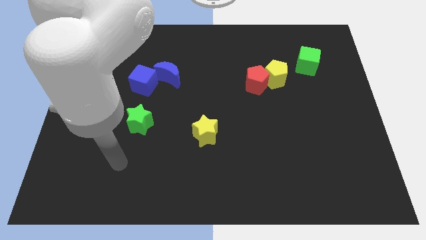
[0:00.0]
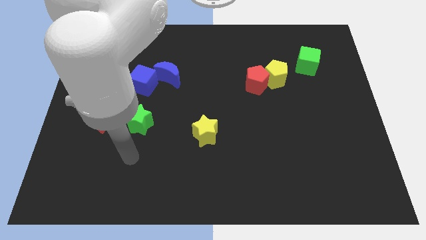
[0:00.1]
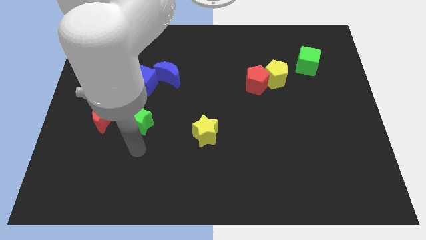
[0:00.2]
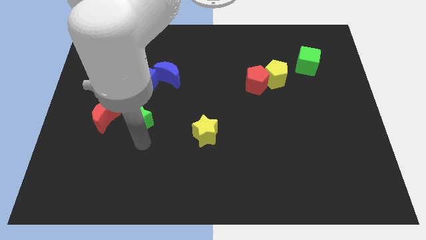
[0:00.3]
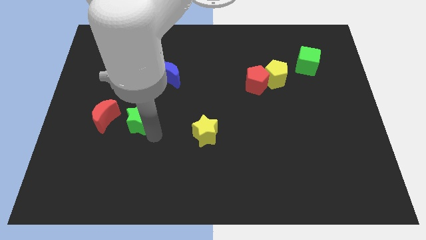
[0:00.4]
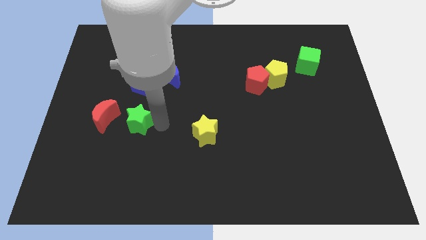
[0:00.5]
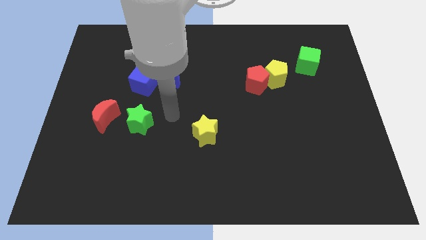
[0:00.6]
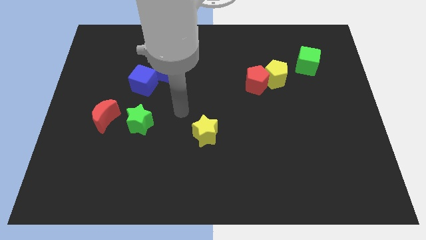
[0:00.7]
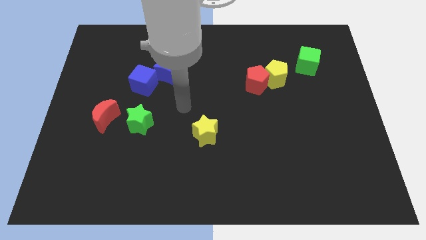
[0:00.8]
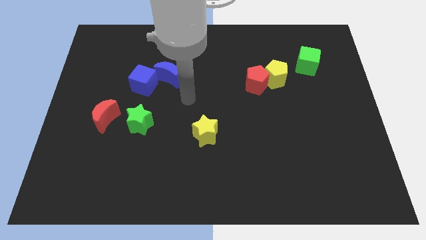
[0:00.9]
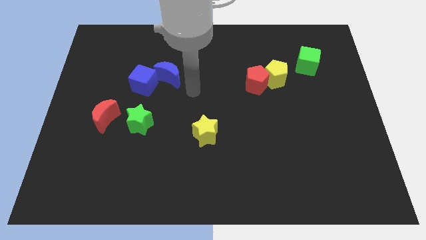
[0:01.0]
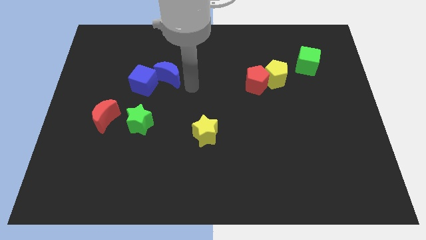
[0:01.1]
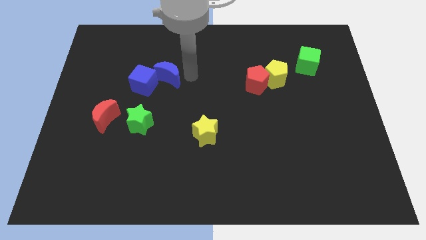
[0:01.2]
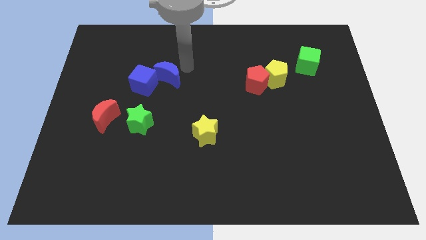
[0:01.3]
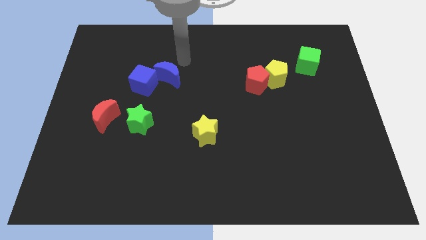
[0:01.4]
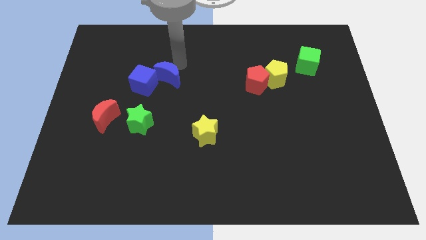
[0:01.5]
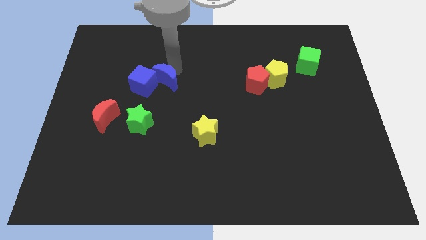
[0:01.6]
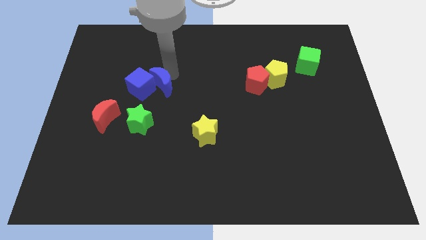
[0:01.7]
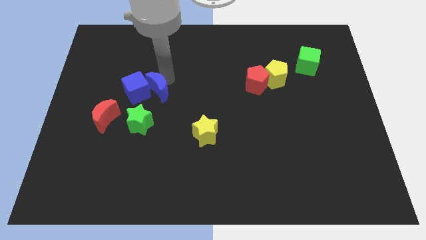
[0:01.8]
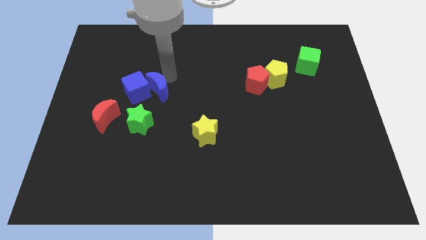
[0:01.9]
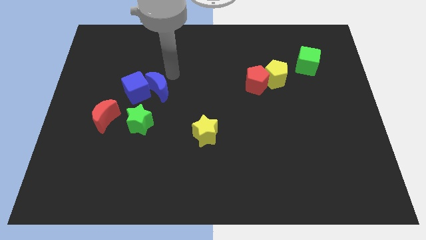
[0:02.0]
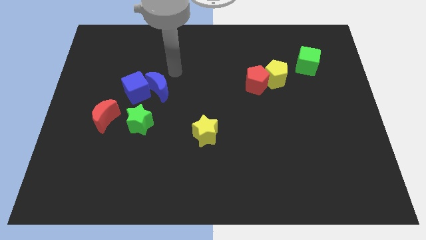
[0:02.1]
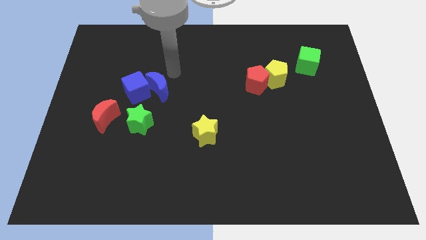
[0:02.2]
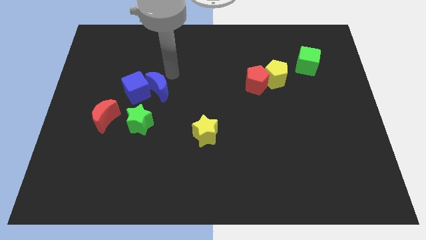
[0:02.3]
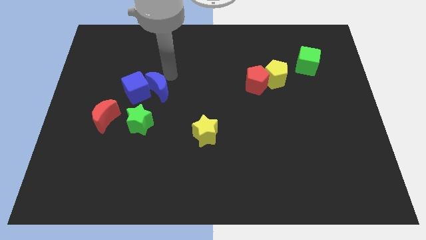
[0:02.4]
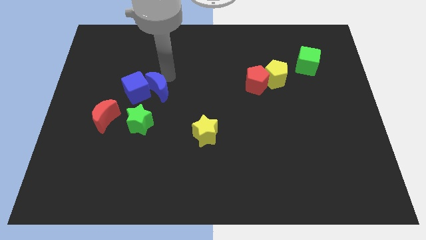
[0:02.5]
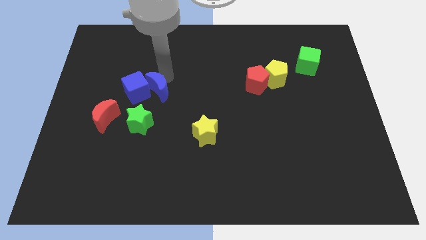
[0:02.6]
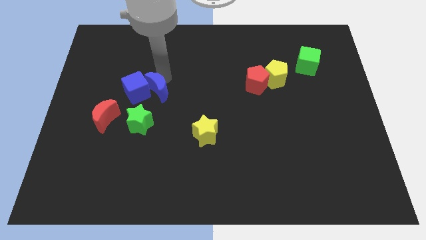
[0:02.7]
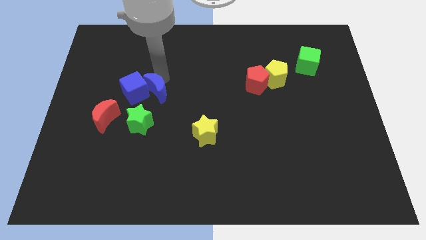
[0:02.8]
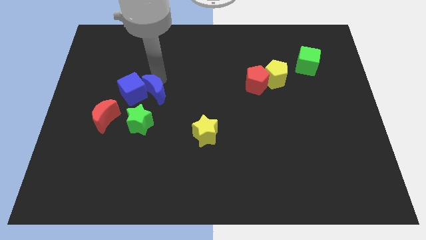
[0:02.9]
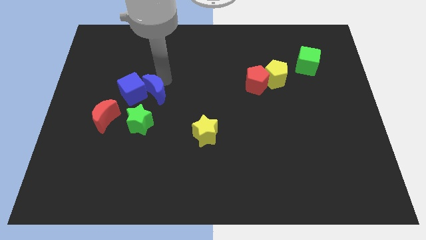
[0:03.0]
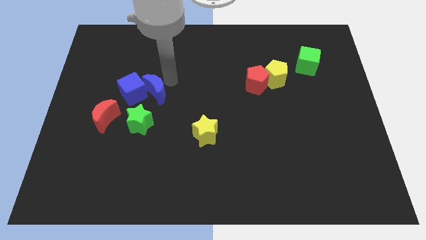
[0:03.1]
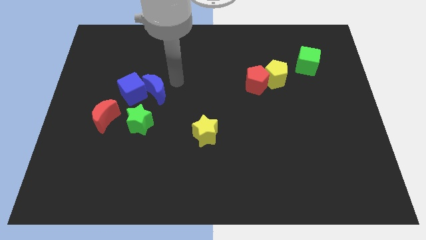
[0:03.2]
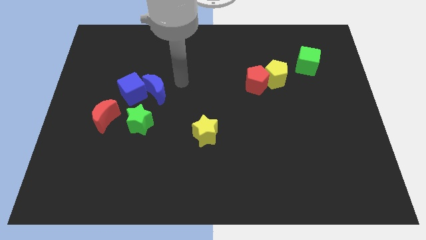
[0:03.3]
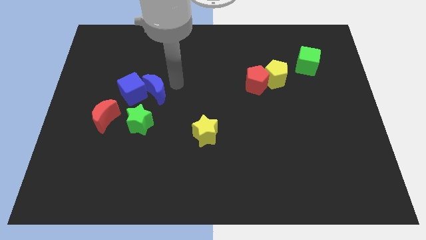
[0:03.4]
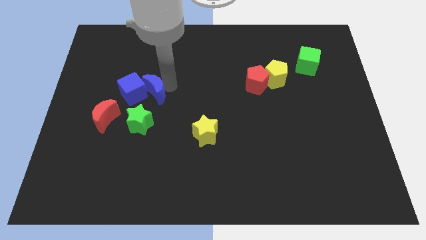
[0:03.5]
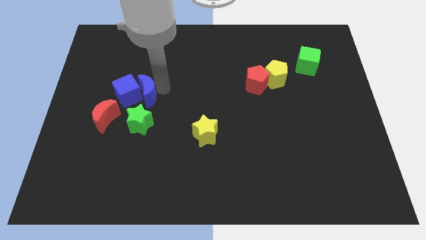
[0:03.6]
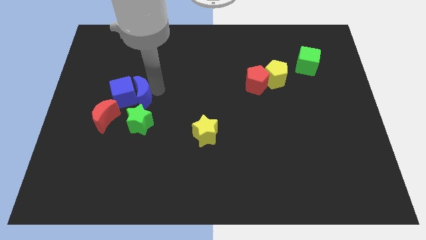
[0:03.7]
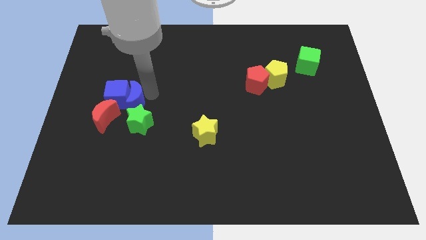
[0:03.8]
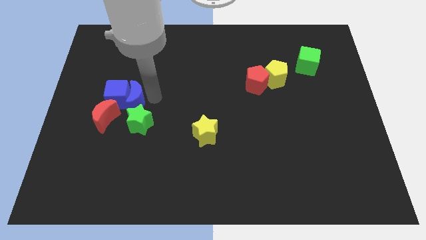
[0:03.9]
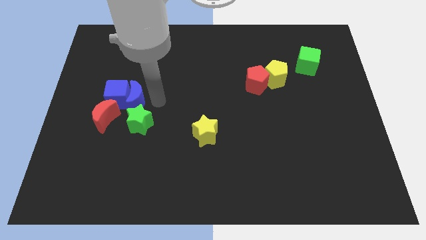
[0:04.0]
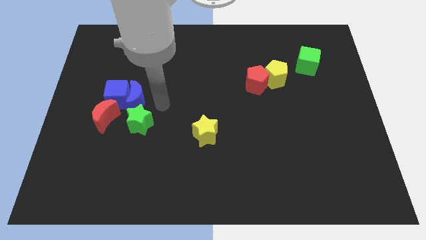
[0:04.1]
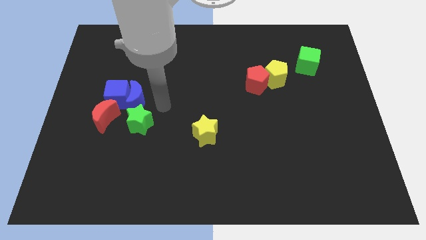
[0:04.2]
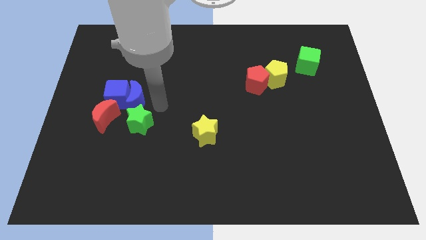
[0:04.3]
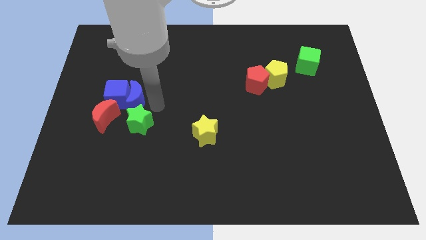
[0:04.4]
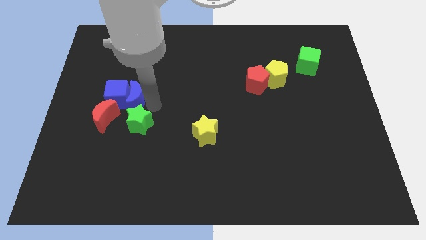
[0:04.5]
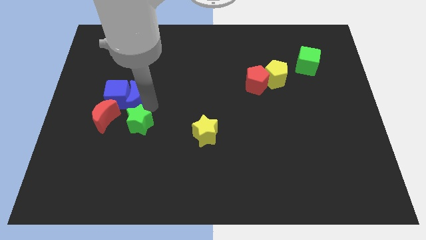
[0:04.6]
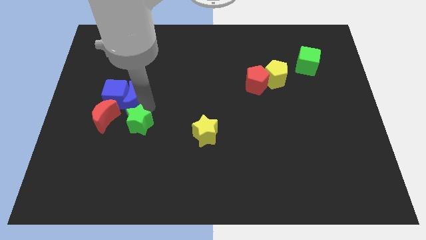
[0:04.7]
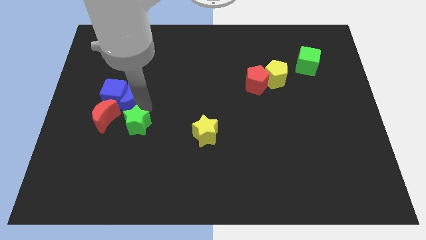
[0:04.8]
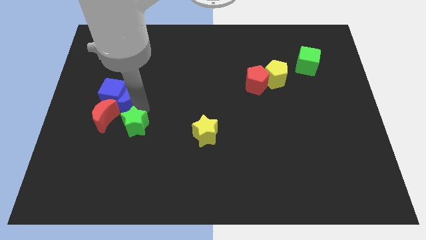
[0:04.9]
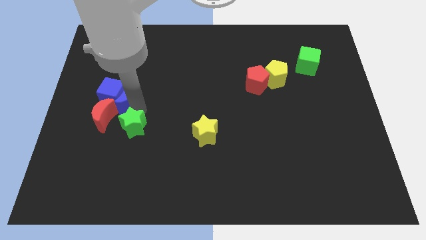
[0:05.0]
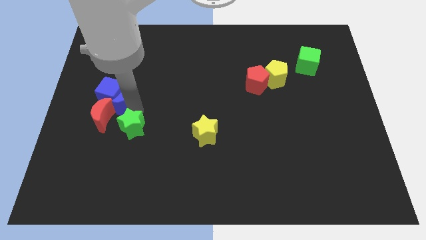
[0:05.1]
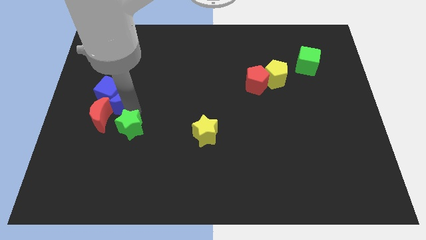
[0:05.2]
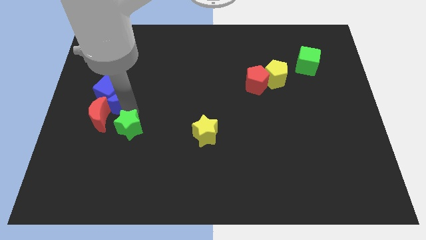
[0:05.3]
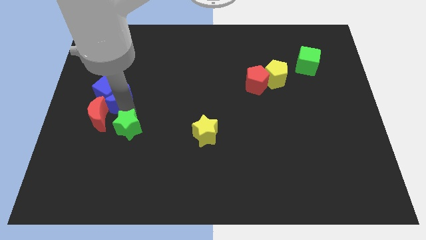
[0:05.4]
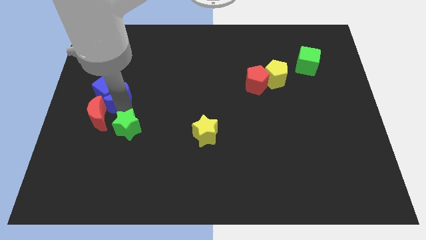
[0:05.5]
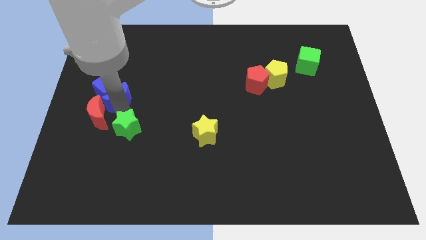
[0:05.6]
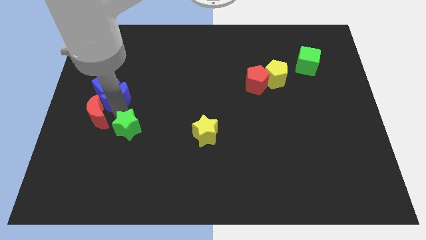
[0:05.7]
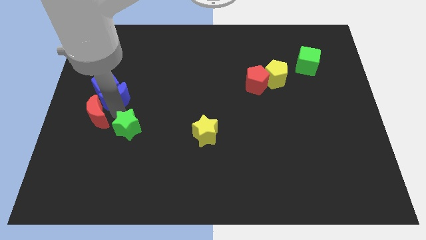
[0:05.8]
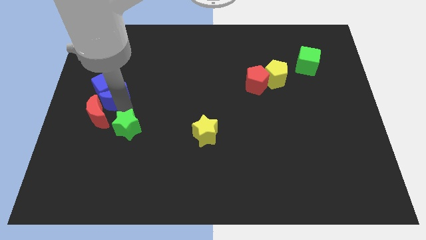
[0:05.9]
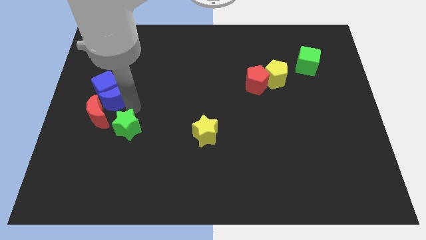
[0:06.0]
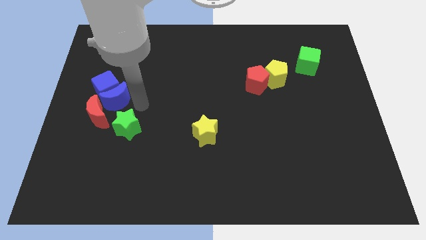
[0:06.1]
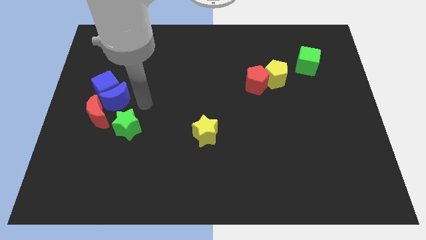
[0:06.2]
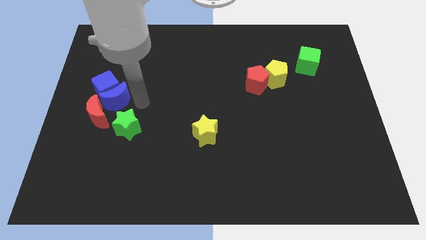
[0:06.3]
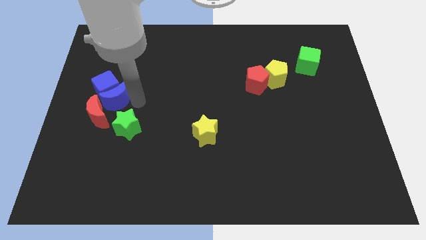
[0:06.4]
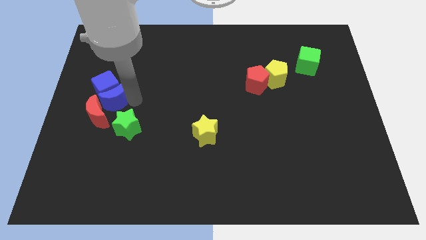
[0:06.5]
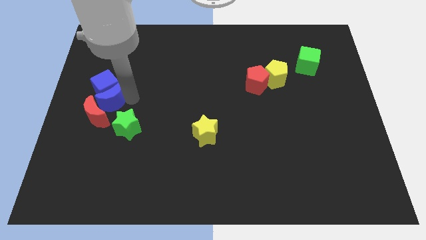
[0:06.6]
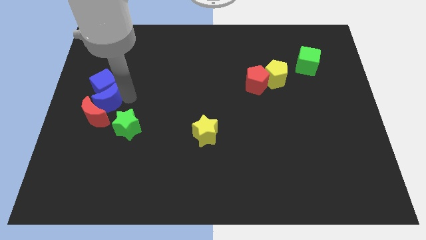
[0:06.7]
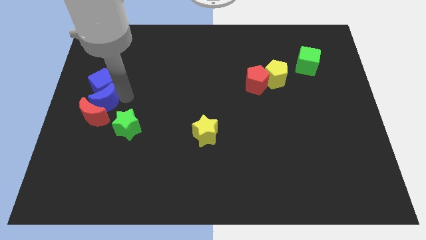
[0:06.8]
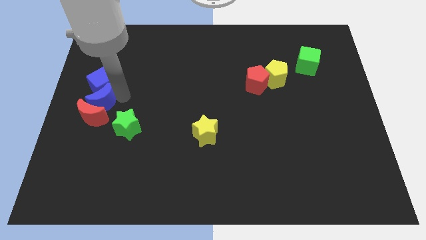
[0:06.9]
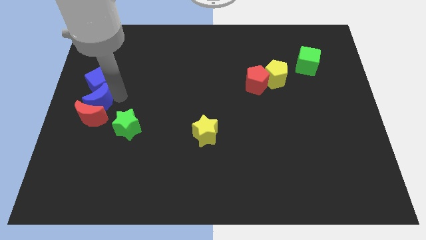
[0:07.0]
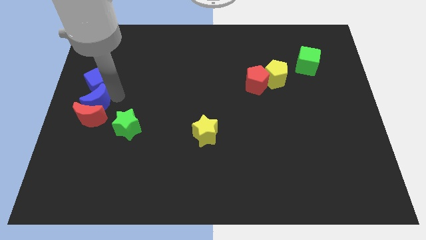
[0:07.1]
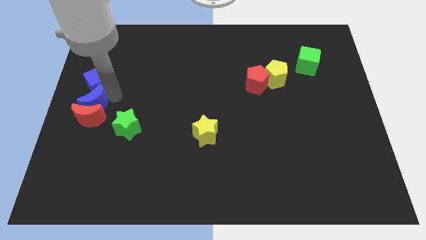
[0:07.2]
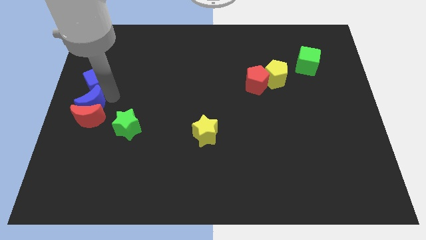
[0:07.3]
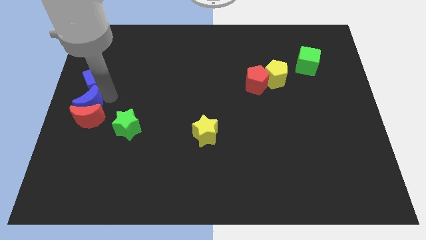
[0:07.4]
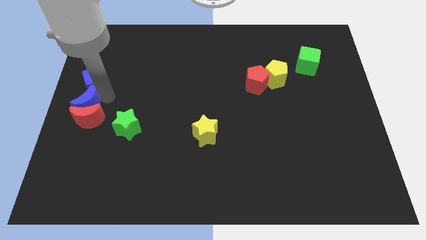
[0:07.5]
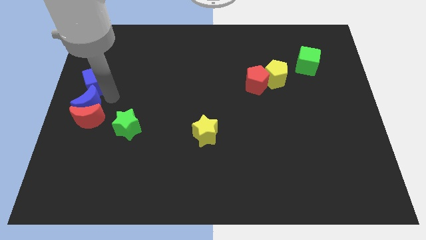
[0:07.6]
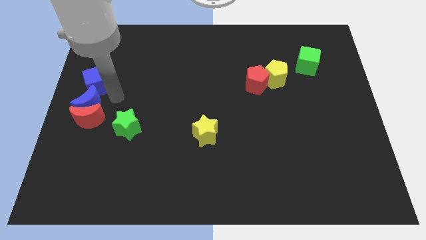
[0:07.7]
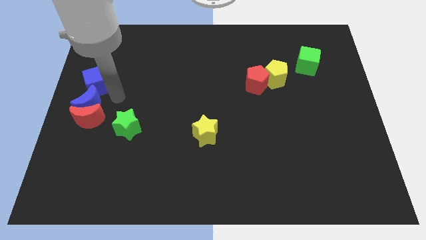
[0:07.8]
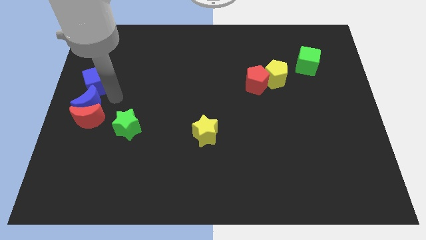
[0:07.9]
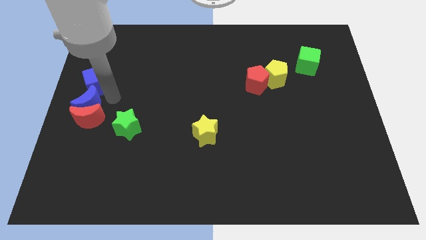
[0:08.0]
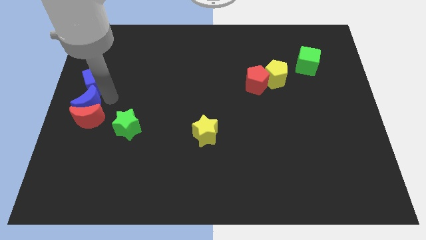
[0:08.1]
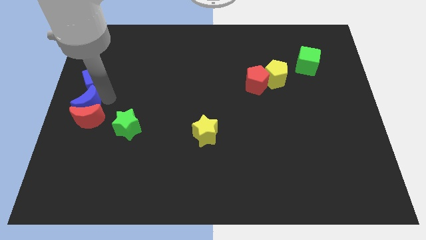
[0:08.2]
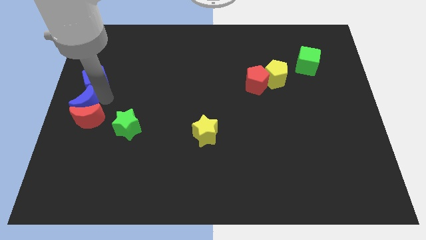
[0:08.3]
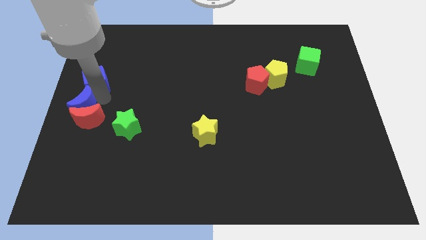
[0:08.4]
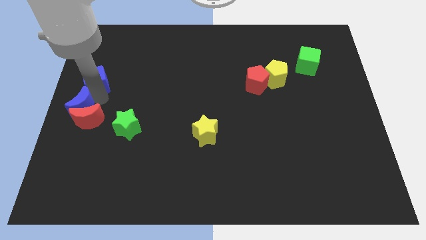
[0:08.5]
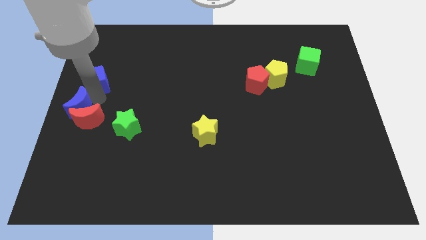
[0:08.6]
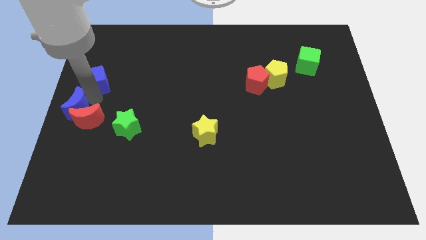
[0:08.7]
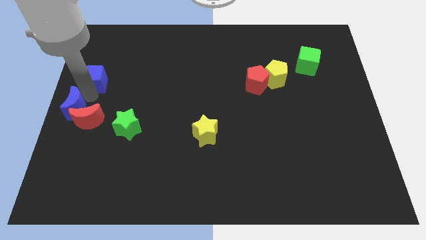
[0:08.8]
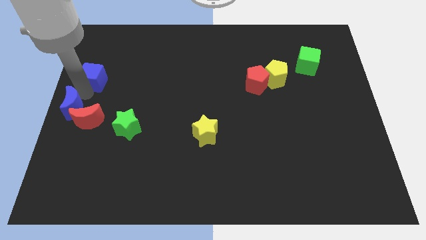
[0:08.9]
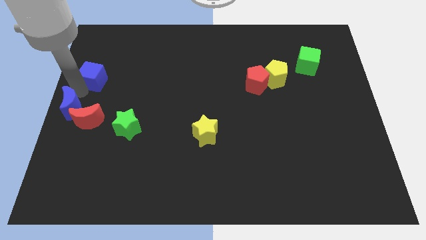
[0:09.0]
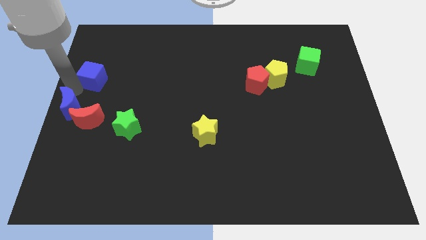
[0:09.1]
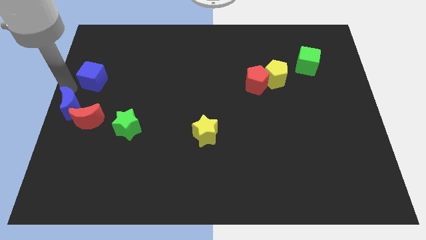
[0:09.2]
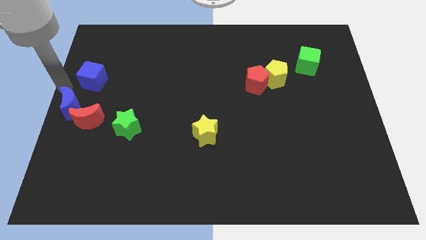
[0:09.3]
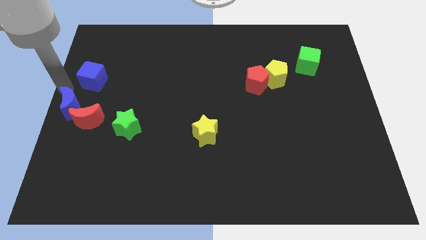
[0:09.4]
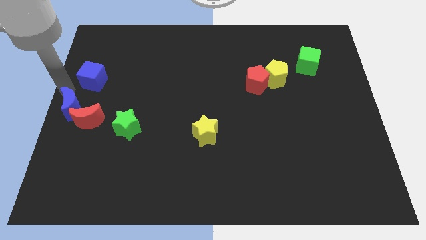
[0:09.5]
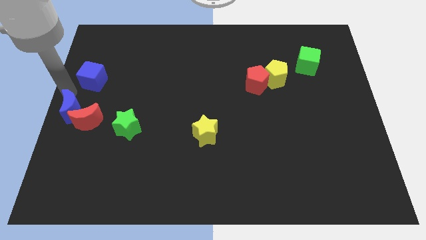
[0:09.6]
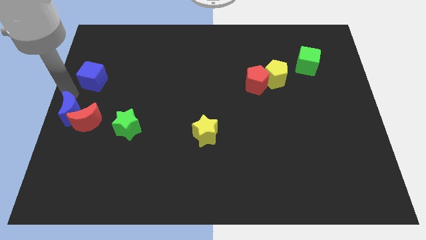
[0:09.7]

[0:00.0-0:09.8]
put the blue moon to the left side of the green star
